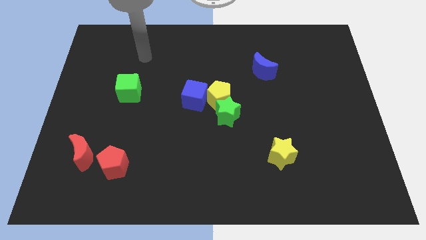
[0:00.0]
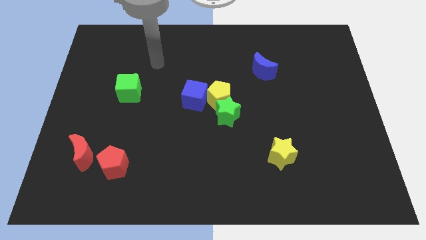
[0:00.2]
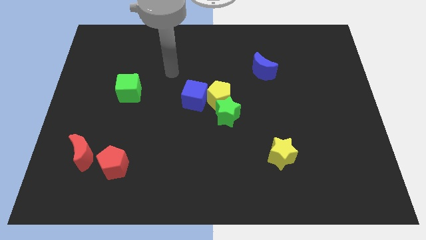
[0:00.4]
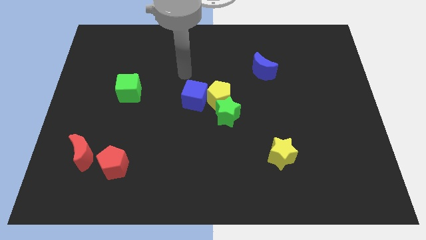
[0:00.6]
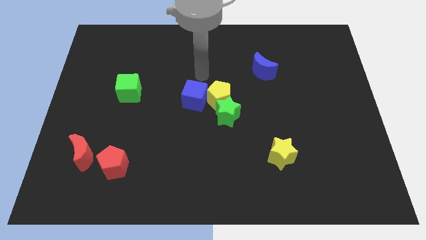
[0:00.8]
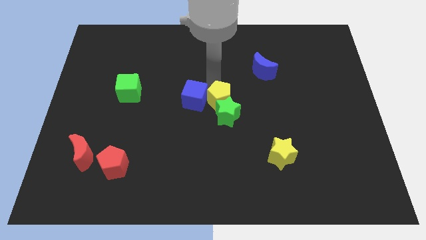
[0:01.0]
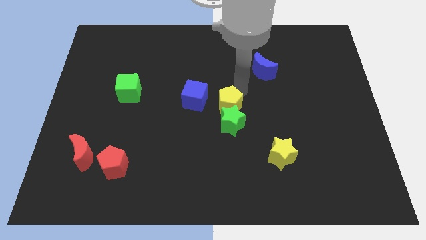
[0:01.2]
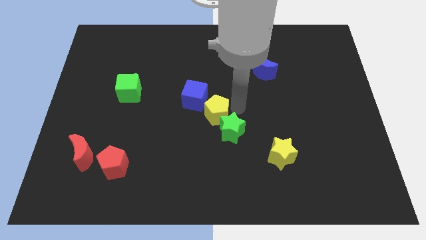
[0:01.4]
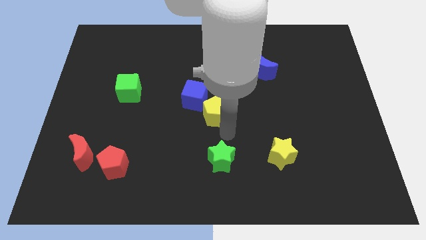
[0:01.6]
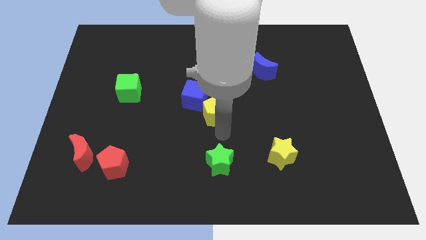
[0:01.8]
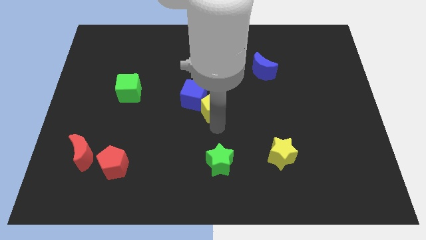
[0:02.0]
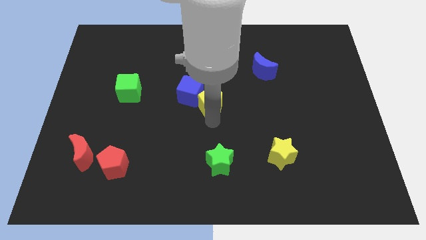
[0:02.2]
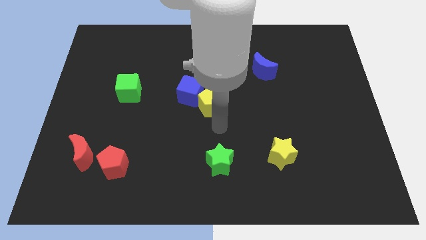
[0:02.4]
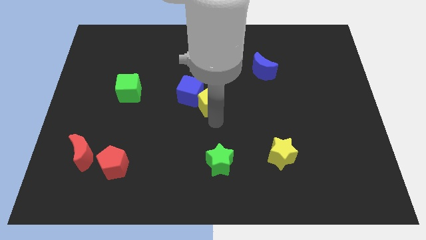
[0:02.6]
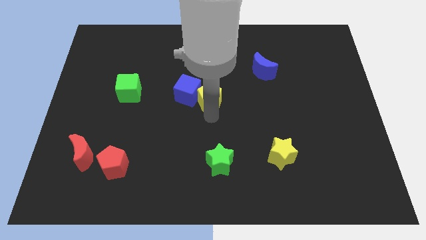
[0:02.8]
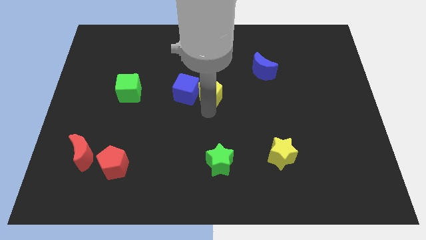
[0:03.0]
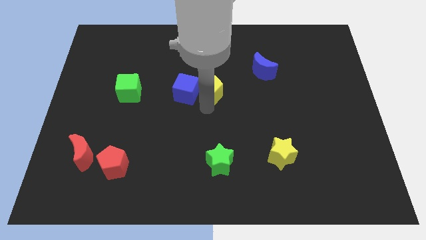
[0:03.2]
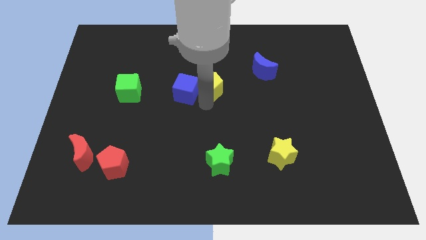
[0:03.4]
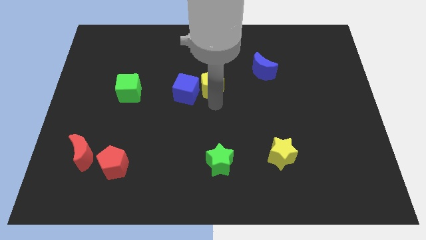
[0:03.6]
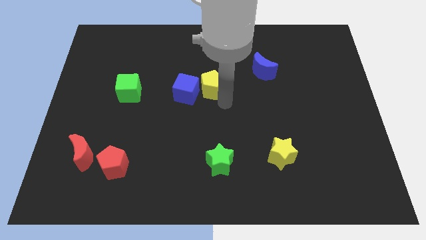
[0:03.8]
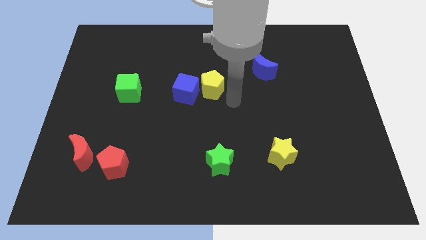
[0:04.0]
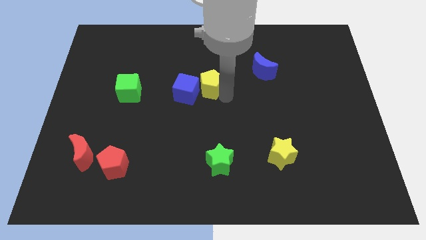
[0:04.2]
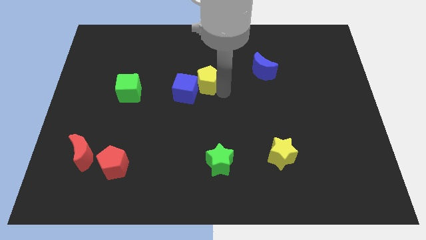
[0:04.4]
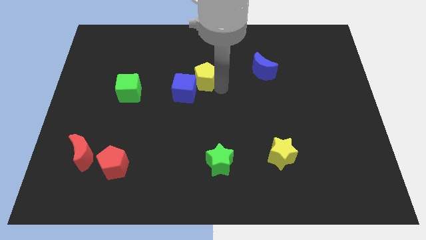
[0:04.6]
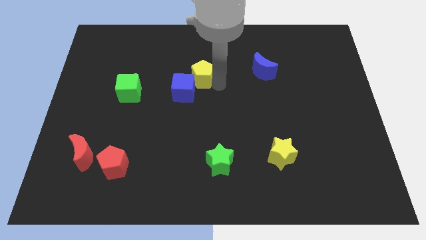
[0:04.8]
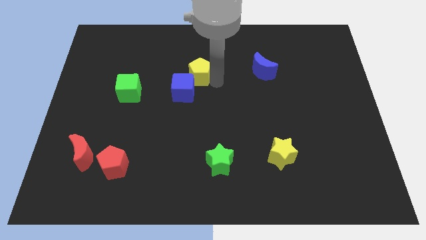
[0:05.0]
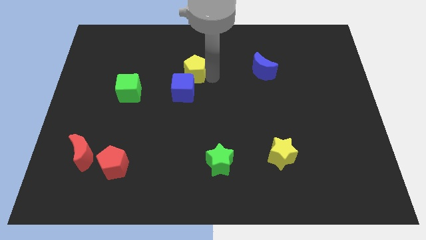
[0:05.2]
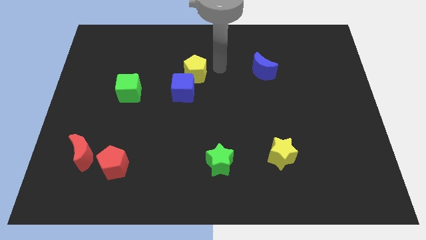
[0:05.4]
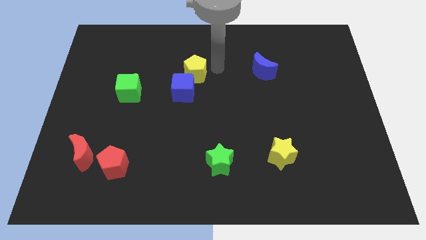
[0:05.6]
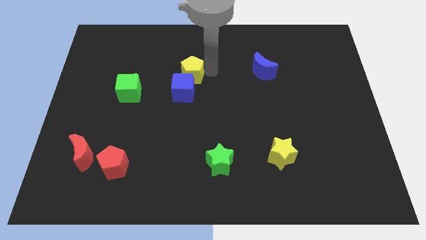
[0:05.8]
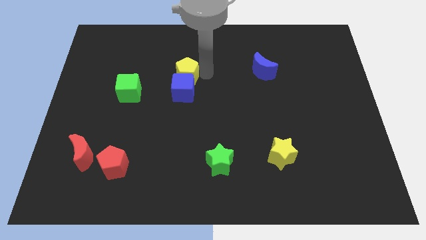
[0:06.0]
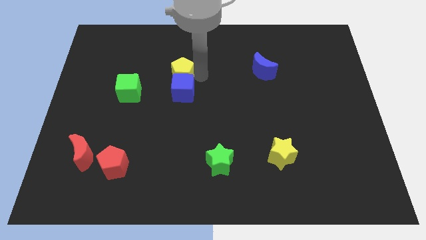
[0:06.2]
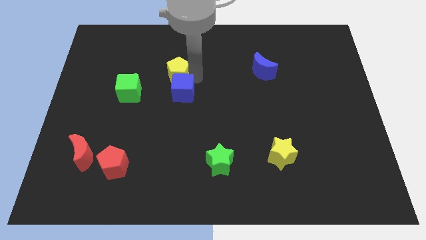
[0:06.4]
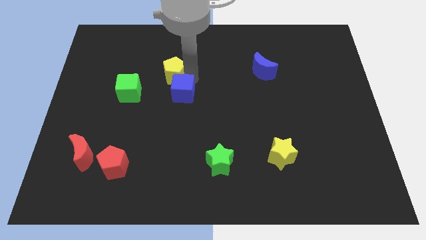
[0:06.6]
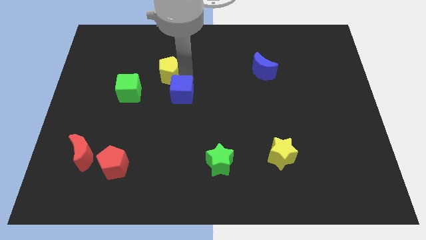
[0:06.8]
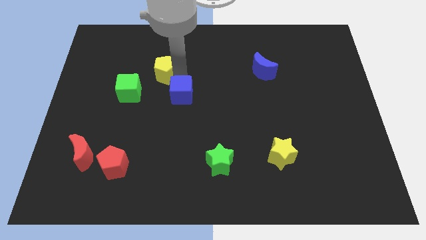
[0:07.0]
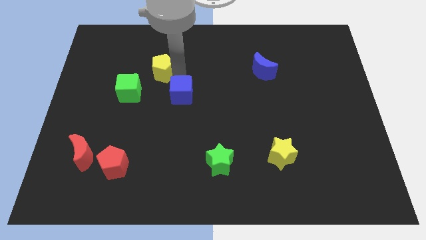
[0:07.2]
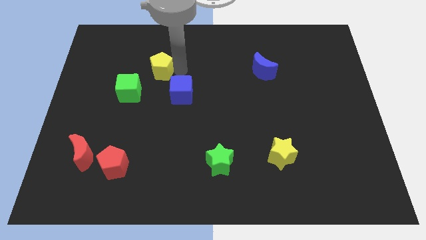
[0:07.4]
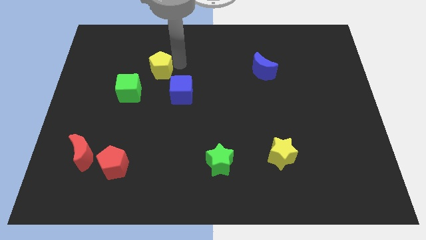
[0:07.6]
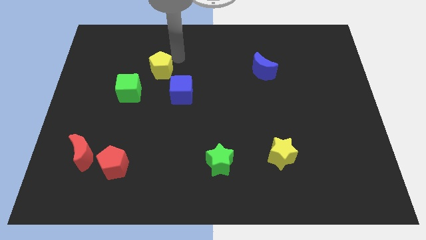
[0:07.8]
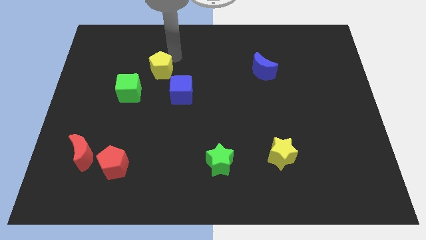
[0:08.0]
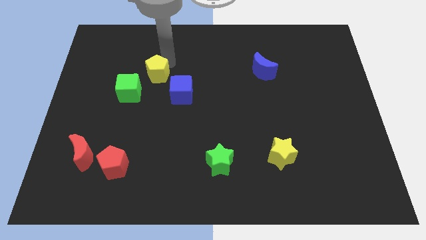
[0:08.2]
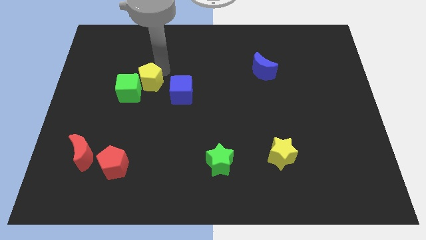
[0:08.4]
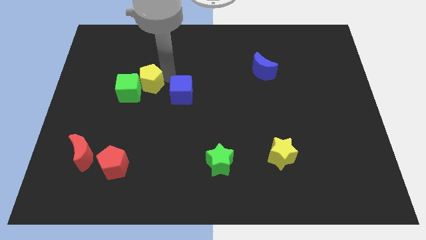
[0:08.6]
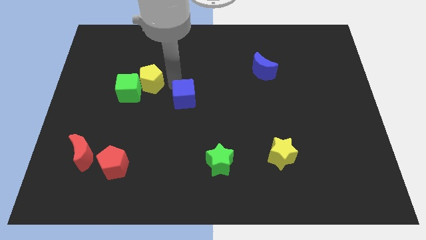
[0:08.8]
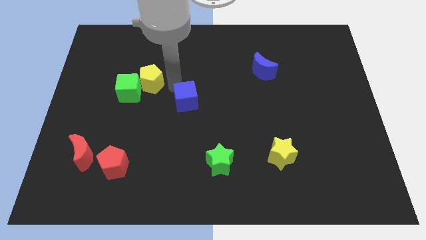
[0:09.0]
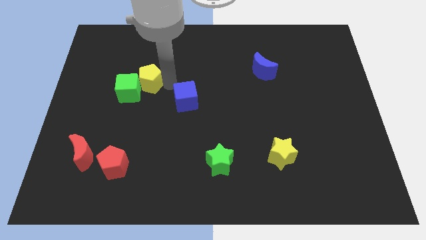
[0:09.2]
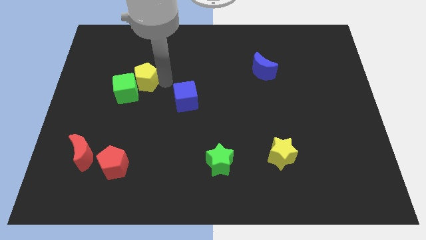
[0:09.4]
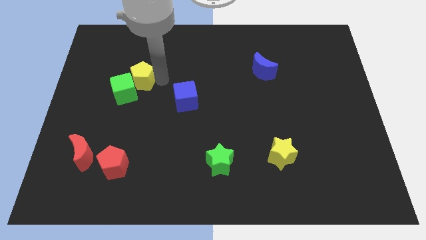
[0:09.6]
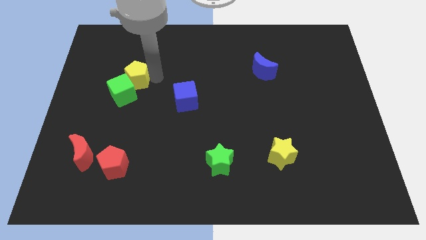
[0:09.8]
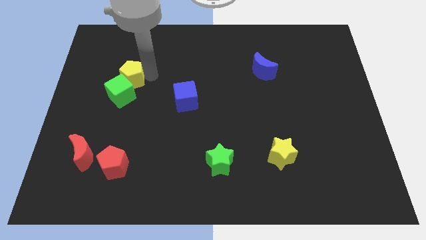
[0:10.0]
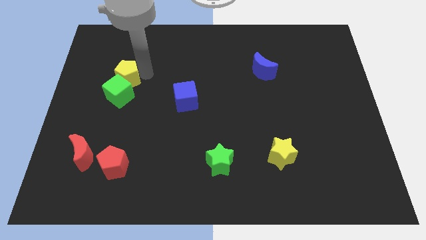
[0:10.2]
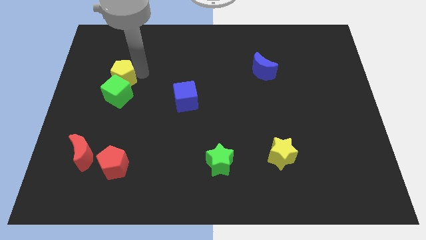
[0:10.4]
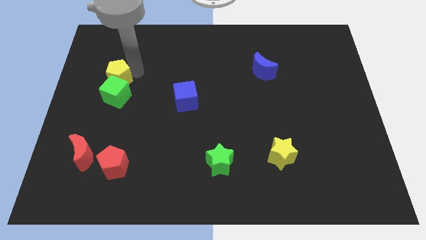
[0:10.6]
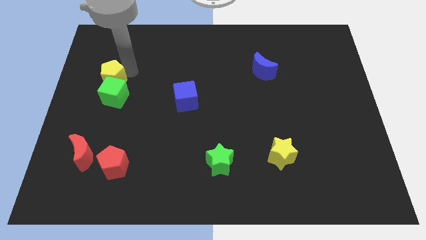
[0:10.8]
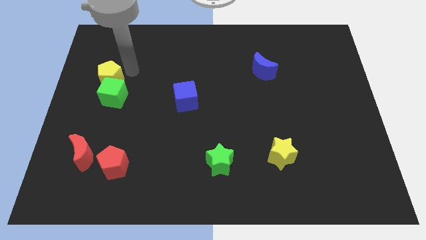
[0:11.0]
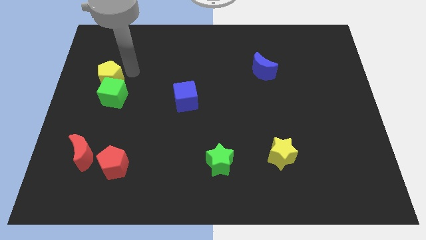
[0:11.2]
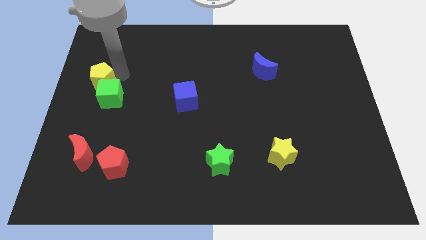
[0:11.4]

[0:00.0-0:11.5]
put the yellow pentagon to the left side
